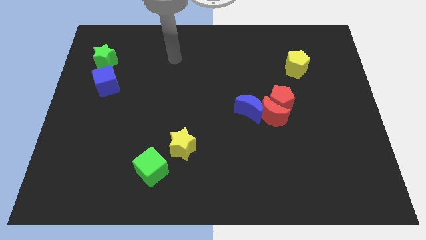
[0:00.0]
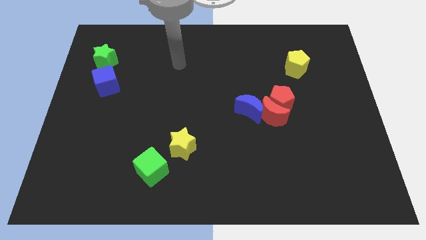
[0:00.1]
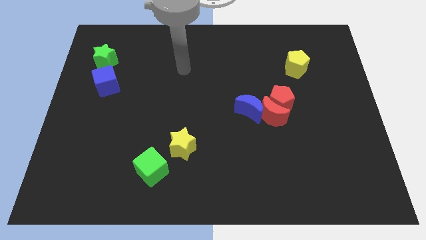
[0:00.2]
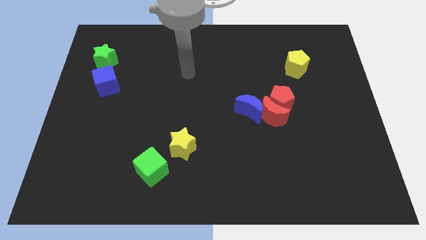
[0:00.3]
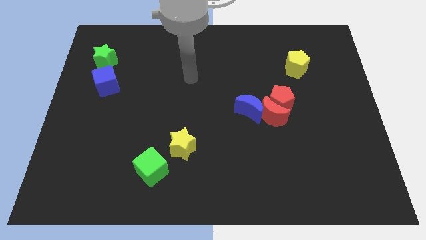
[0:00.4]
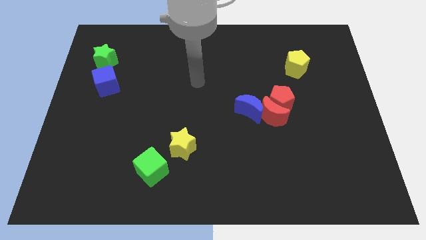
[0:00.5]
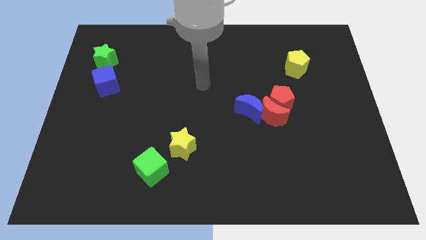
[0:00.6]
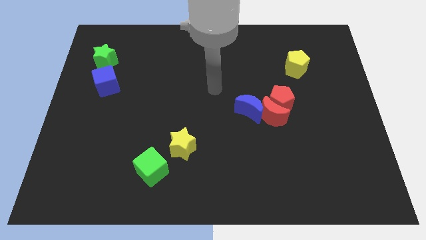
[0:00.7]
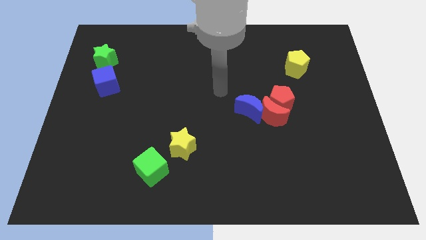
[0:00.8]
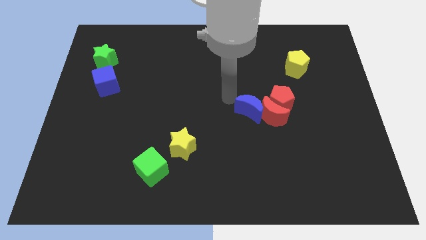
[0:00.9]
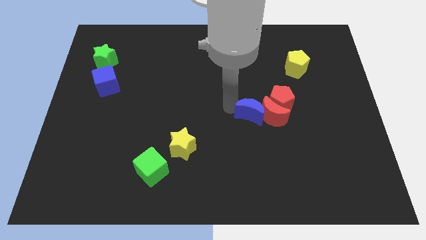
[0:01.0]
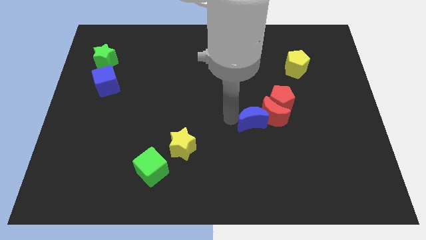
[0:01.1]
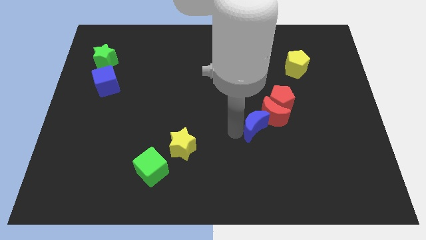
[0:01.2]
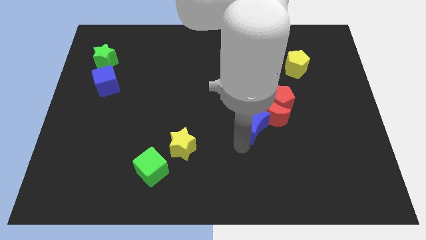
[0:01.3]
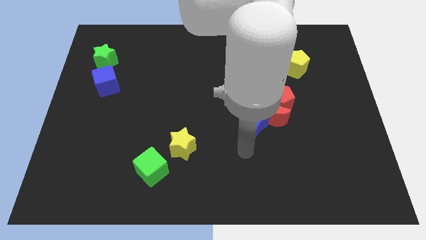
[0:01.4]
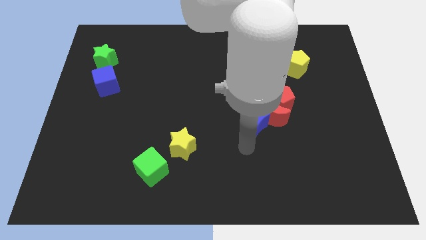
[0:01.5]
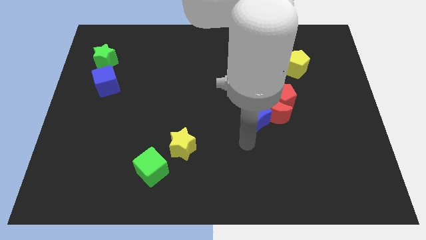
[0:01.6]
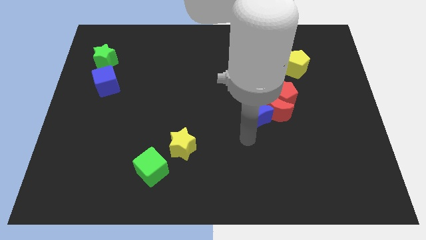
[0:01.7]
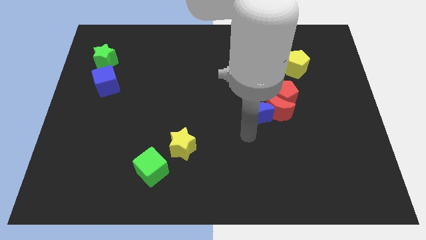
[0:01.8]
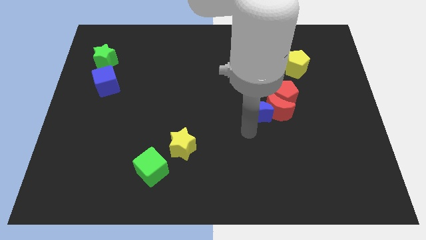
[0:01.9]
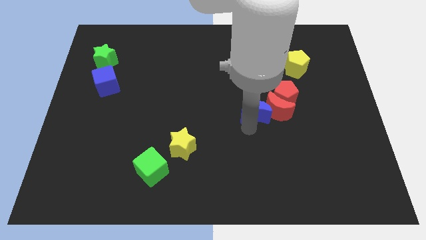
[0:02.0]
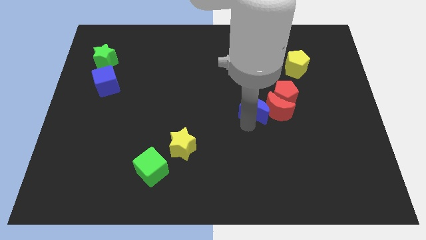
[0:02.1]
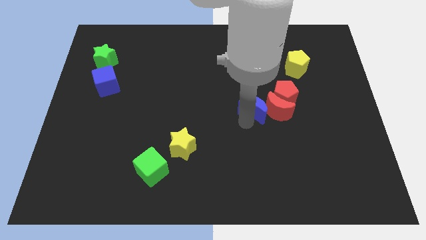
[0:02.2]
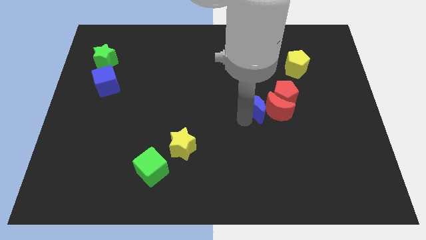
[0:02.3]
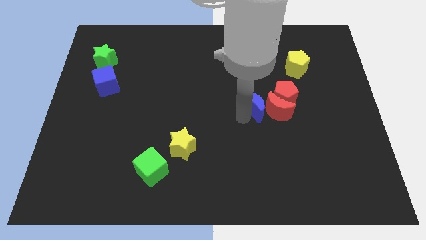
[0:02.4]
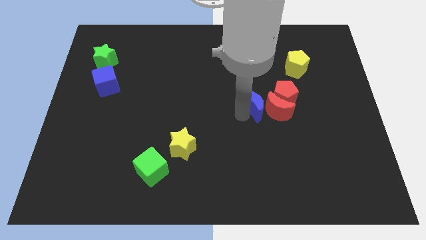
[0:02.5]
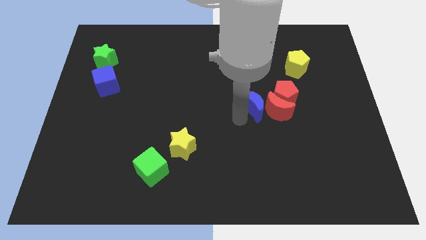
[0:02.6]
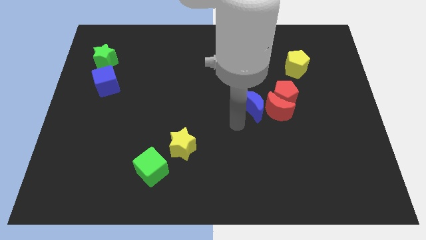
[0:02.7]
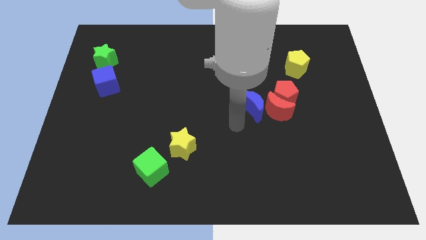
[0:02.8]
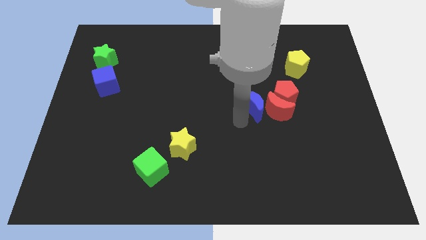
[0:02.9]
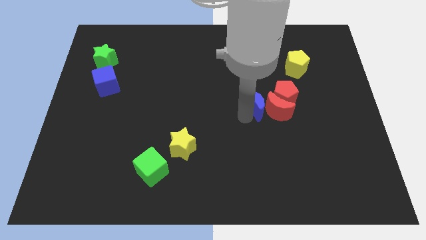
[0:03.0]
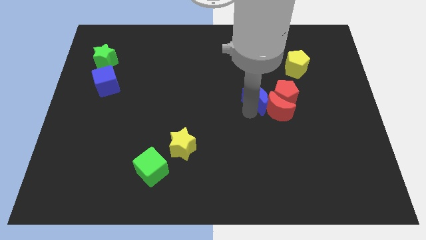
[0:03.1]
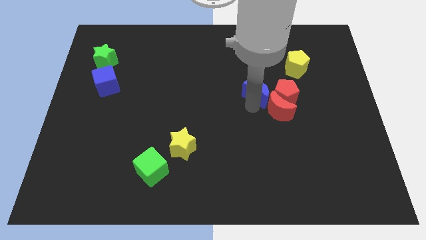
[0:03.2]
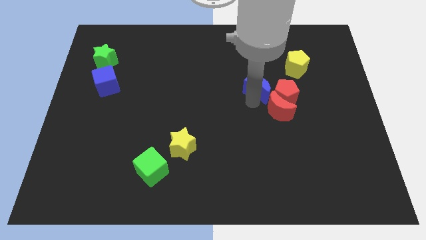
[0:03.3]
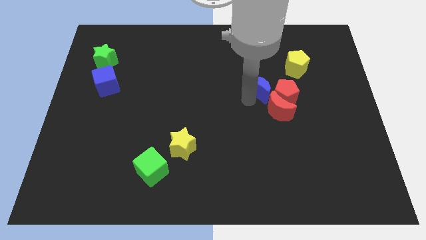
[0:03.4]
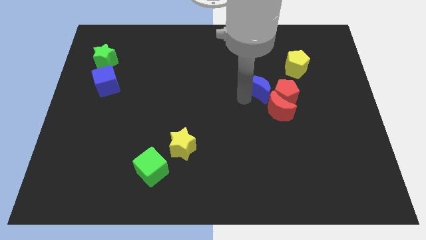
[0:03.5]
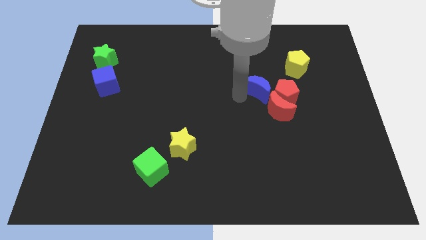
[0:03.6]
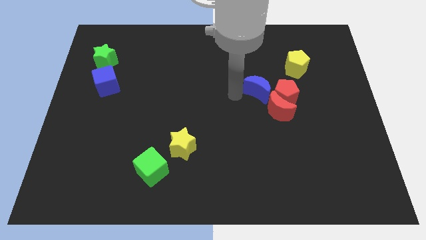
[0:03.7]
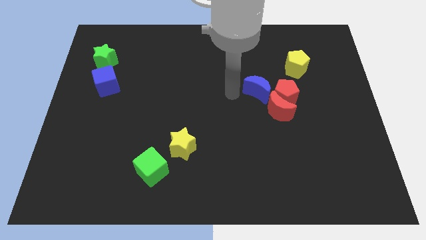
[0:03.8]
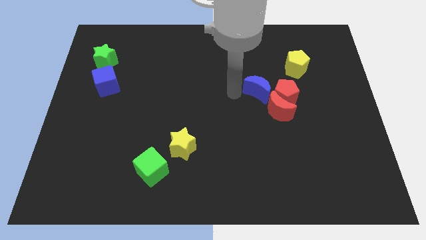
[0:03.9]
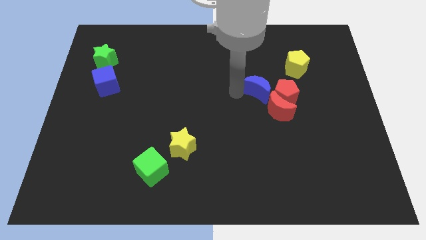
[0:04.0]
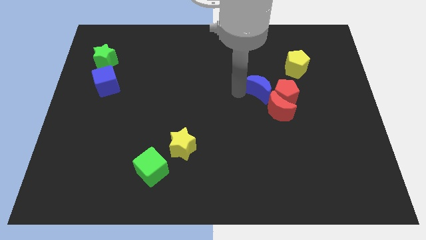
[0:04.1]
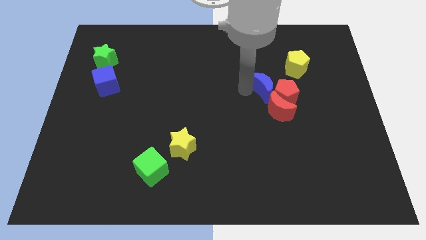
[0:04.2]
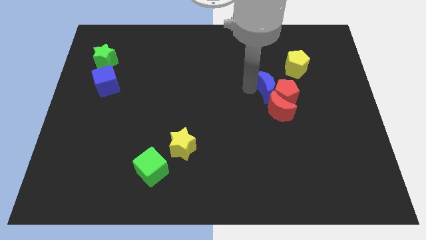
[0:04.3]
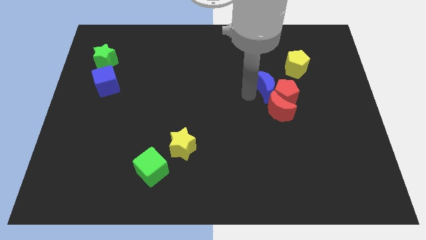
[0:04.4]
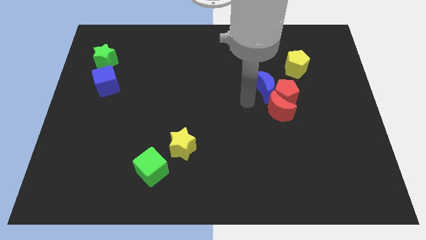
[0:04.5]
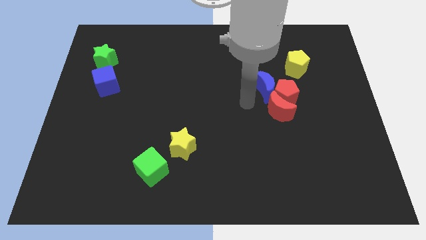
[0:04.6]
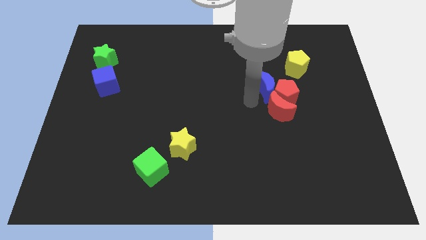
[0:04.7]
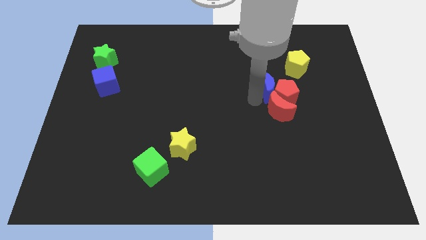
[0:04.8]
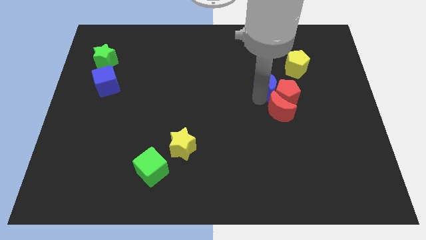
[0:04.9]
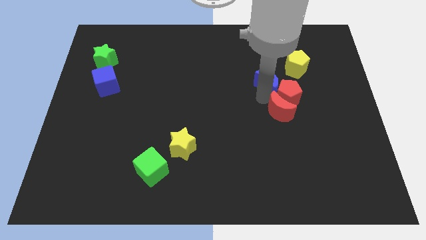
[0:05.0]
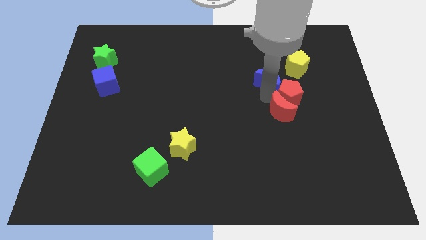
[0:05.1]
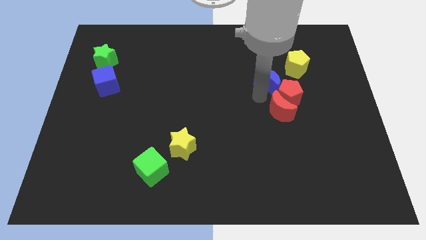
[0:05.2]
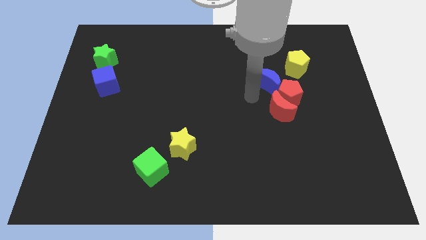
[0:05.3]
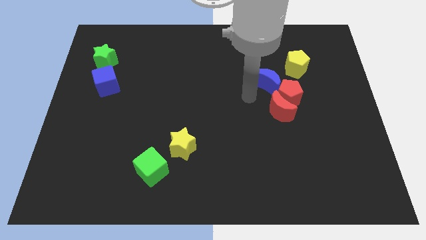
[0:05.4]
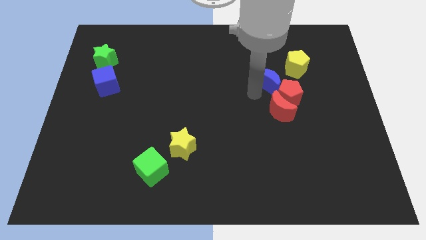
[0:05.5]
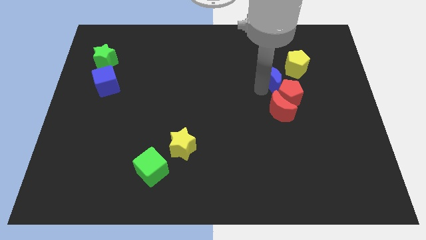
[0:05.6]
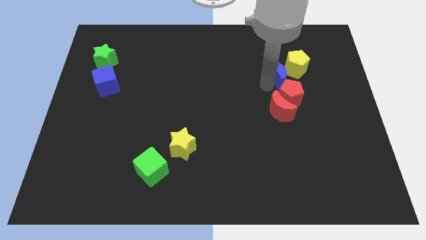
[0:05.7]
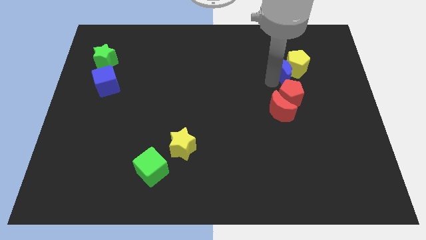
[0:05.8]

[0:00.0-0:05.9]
put the blue moon to the yellow pentagon

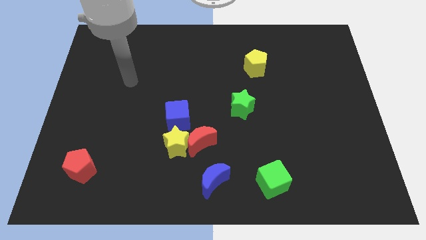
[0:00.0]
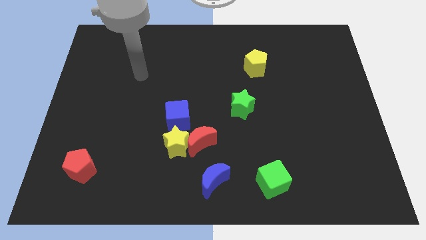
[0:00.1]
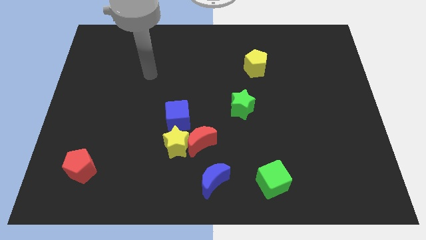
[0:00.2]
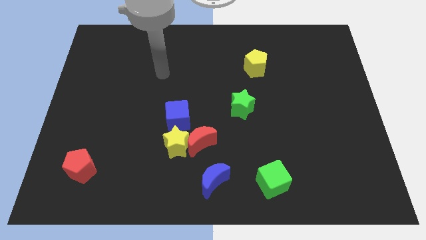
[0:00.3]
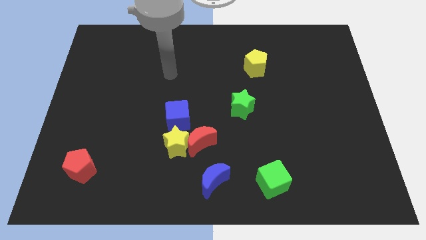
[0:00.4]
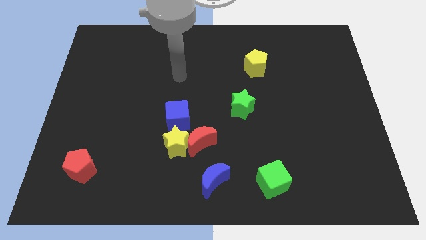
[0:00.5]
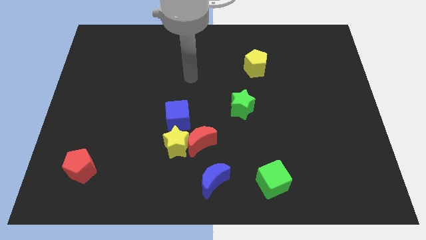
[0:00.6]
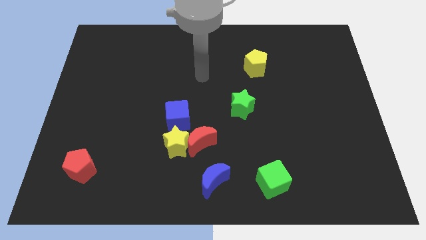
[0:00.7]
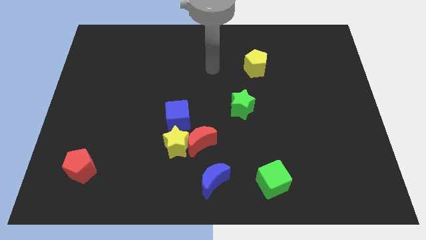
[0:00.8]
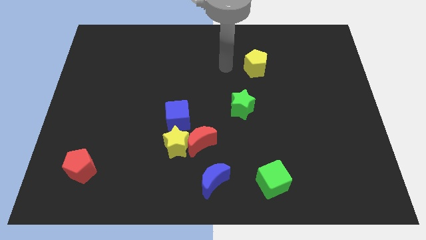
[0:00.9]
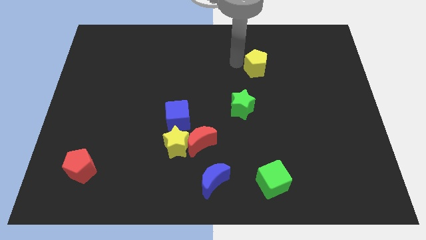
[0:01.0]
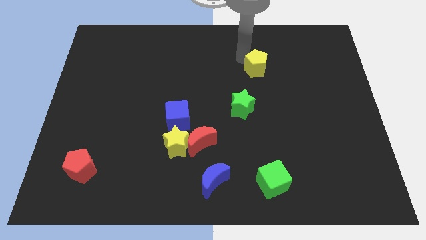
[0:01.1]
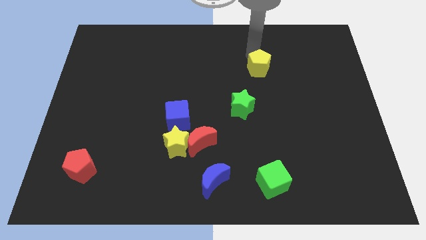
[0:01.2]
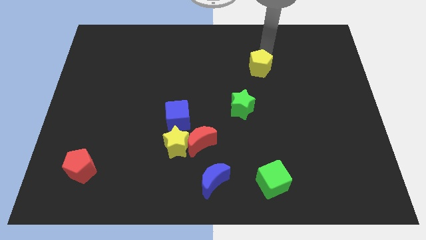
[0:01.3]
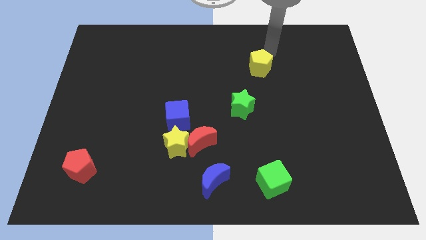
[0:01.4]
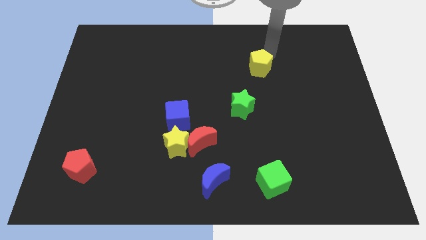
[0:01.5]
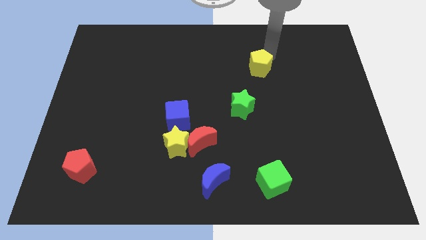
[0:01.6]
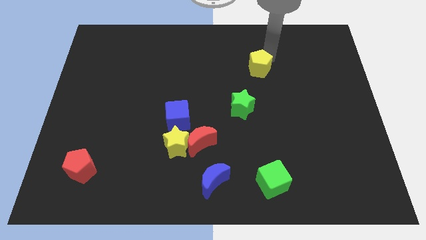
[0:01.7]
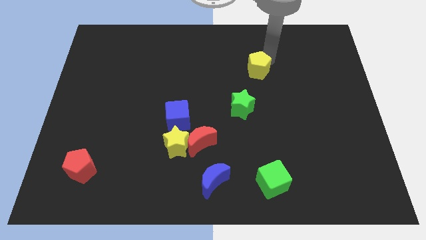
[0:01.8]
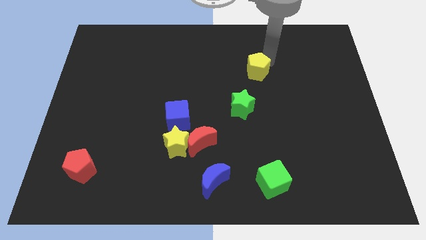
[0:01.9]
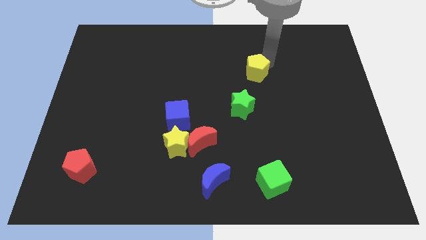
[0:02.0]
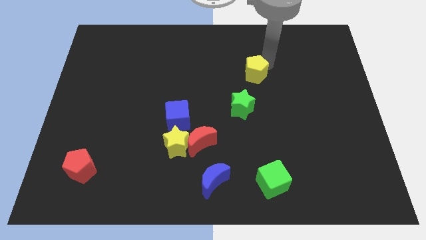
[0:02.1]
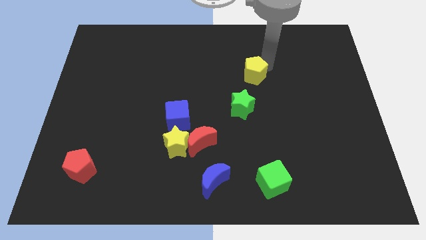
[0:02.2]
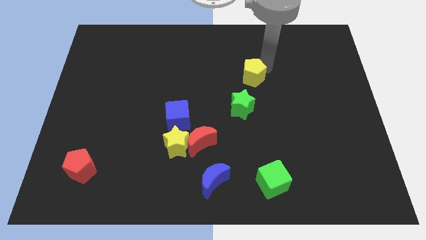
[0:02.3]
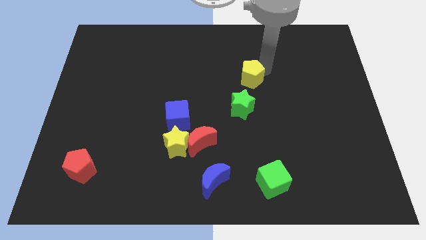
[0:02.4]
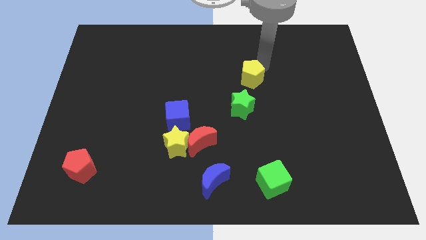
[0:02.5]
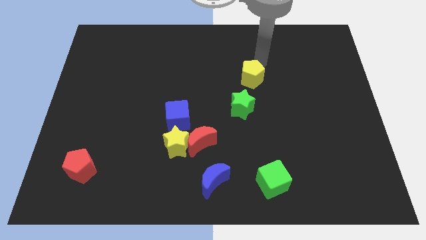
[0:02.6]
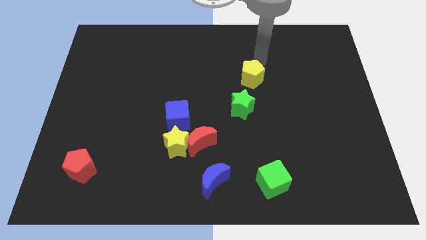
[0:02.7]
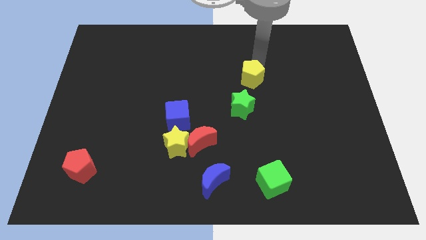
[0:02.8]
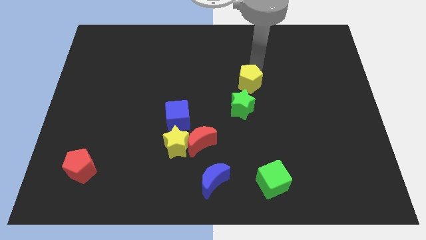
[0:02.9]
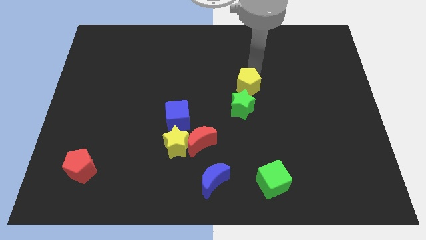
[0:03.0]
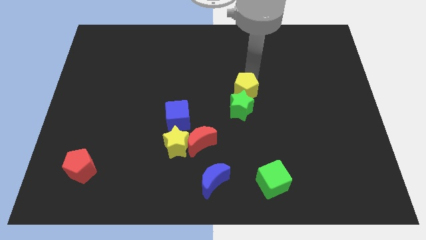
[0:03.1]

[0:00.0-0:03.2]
put the yellow pentagon next to the green star
